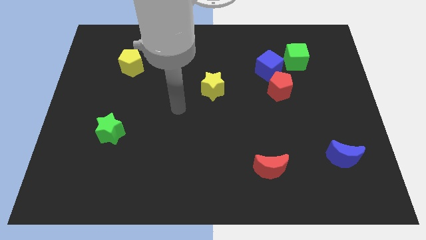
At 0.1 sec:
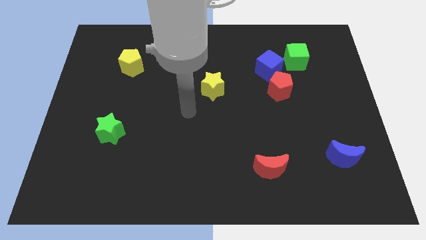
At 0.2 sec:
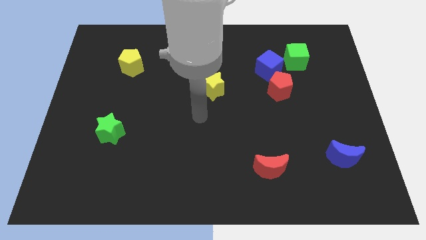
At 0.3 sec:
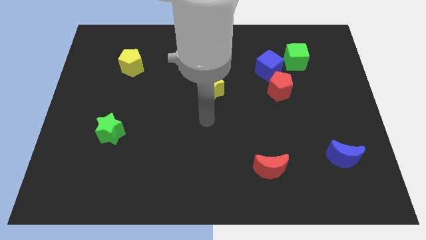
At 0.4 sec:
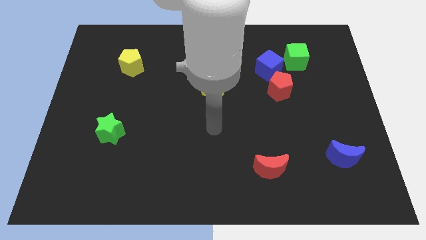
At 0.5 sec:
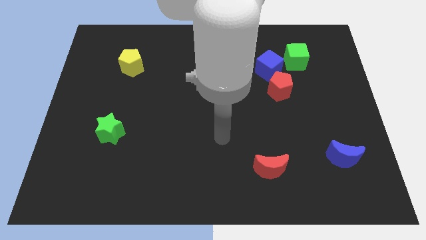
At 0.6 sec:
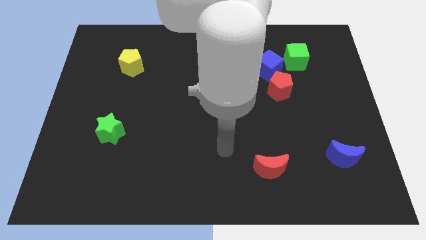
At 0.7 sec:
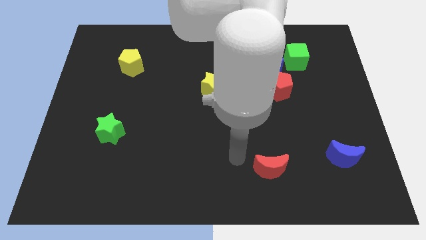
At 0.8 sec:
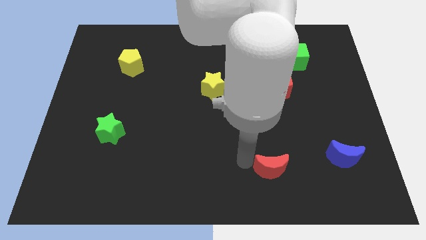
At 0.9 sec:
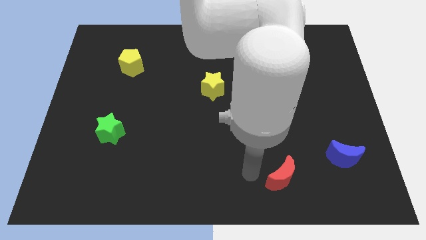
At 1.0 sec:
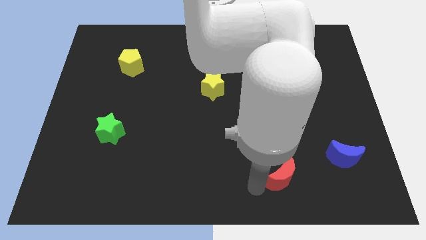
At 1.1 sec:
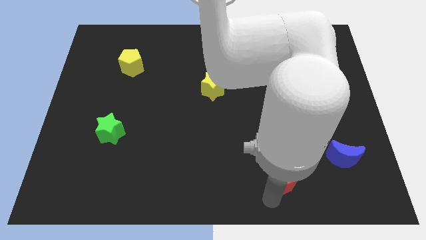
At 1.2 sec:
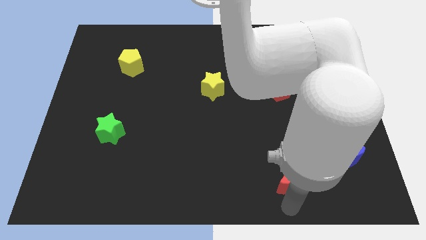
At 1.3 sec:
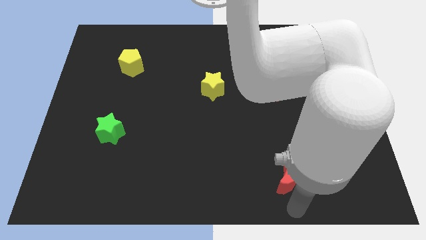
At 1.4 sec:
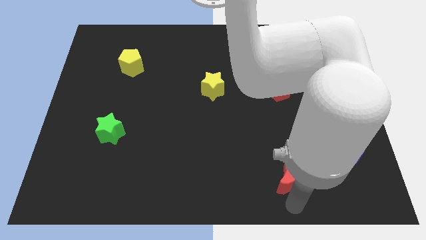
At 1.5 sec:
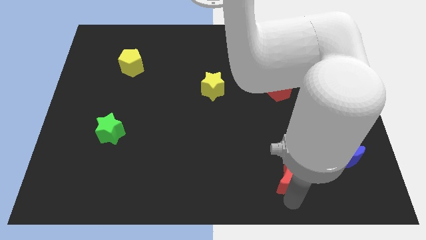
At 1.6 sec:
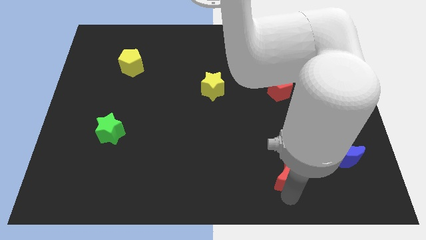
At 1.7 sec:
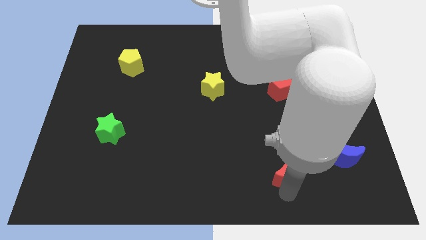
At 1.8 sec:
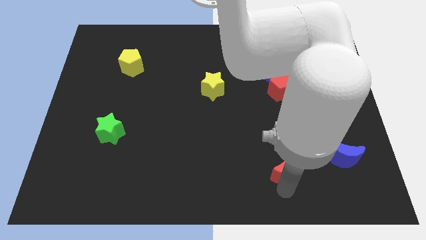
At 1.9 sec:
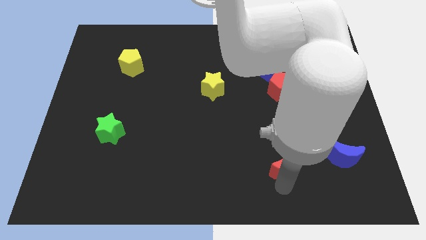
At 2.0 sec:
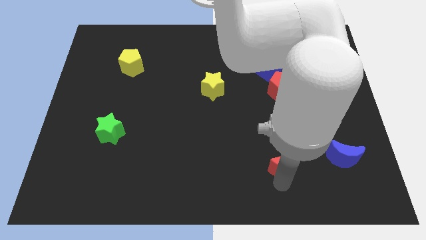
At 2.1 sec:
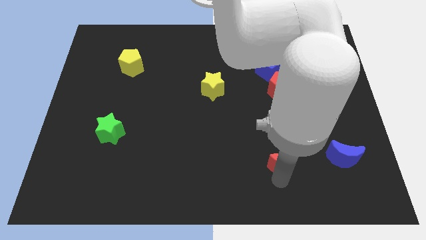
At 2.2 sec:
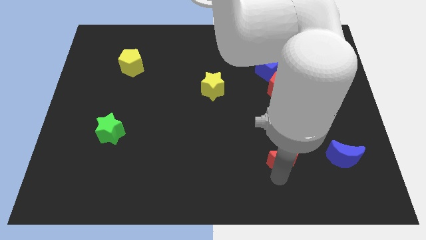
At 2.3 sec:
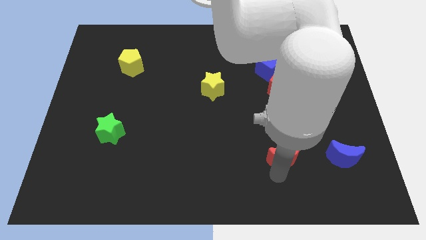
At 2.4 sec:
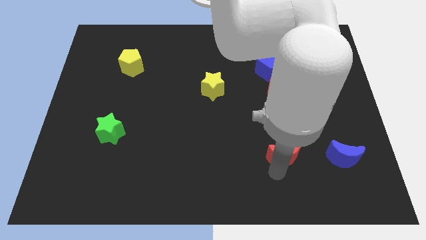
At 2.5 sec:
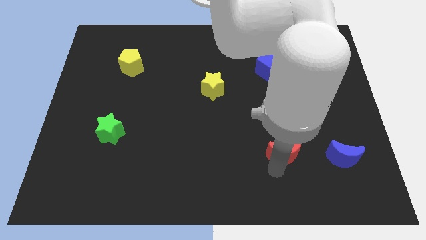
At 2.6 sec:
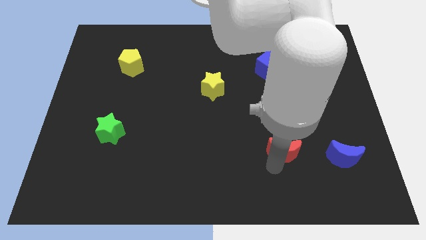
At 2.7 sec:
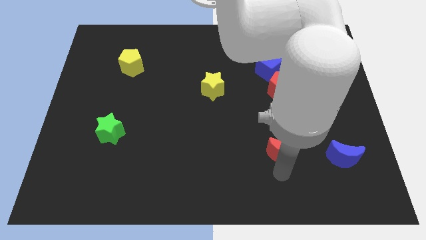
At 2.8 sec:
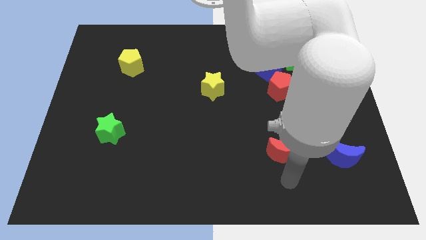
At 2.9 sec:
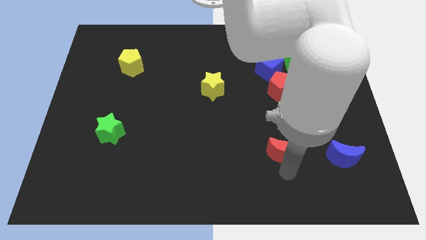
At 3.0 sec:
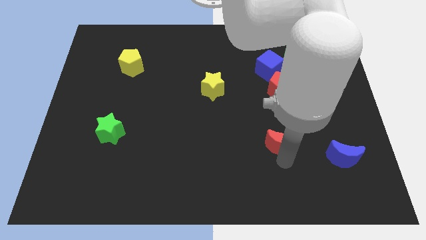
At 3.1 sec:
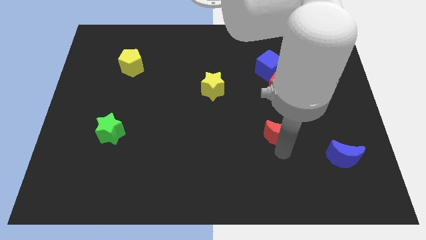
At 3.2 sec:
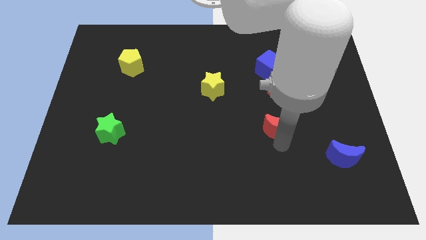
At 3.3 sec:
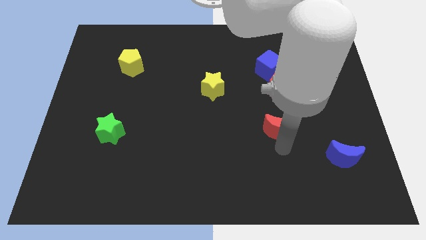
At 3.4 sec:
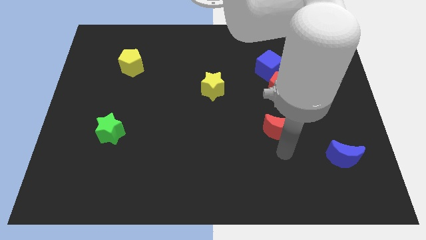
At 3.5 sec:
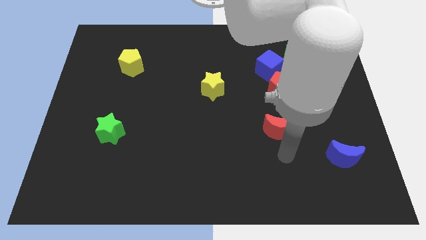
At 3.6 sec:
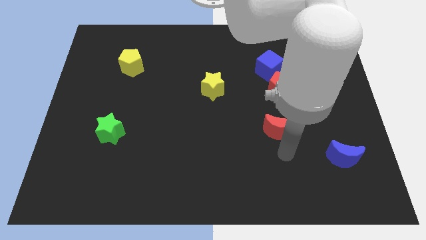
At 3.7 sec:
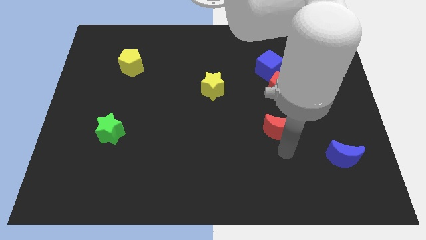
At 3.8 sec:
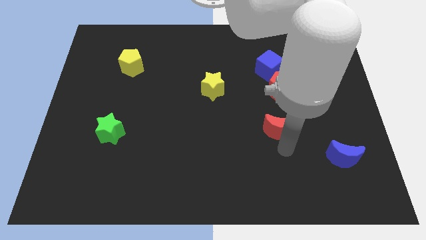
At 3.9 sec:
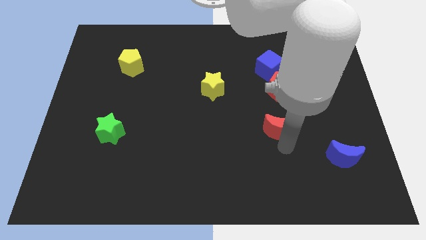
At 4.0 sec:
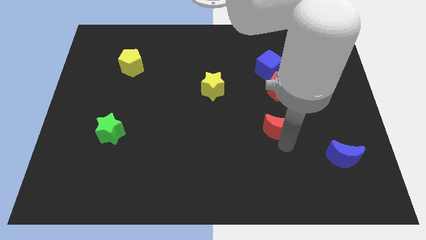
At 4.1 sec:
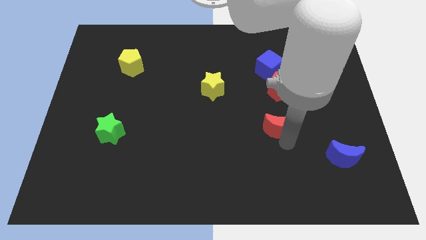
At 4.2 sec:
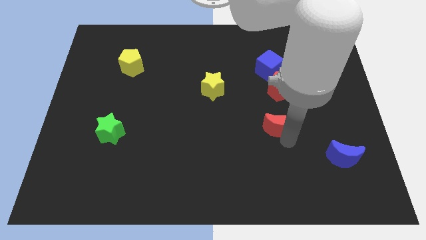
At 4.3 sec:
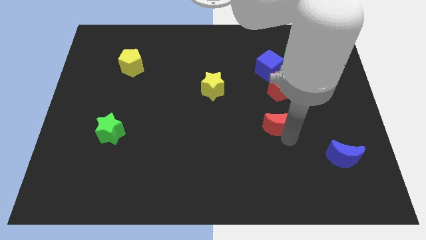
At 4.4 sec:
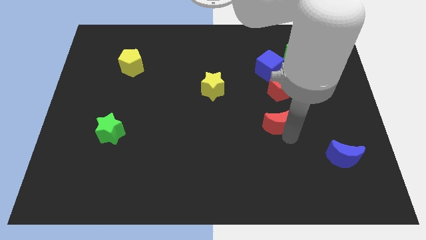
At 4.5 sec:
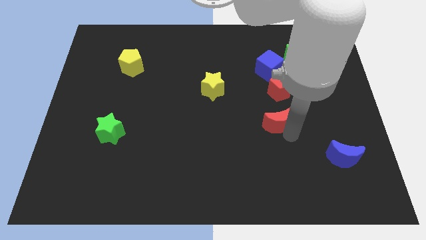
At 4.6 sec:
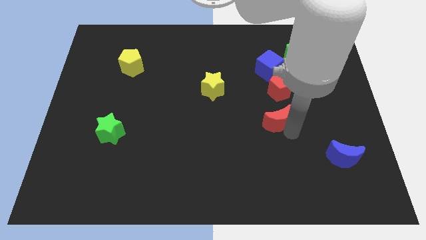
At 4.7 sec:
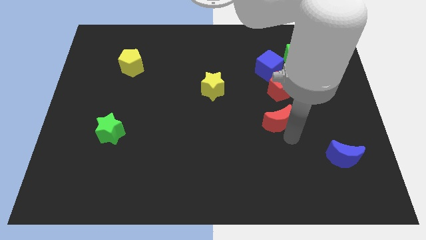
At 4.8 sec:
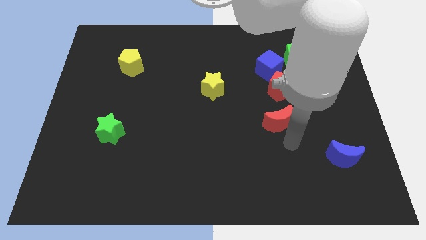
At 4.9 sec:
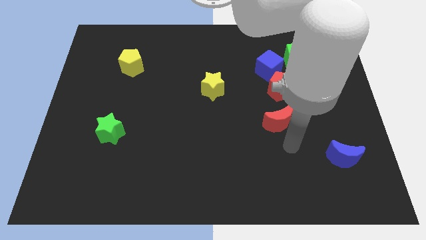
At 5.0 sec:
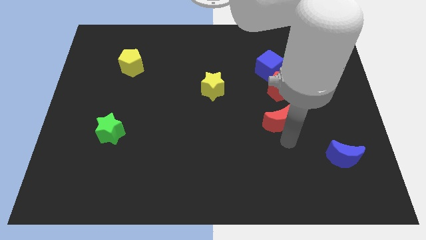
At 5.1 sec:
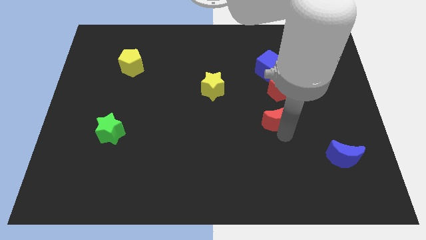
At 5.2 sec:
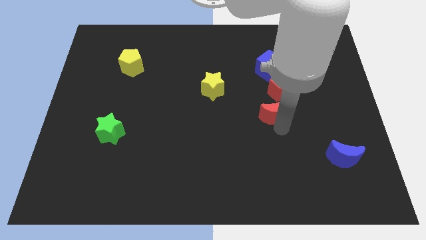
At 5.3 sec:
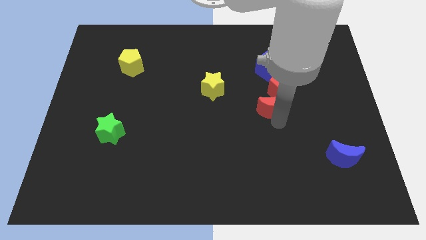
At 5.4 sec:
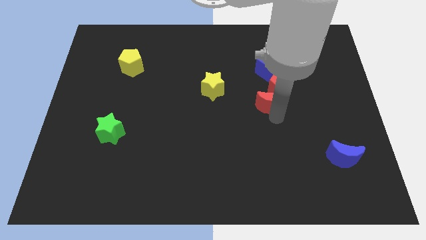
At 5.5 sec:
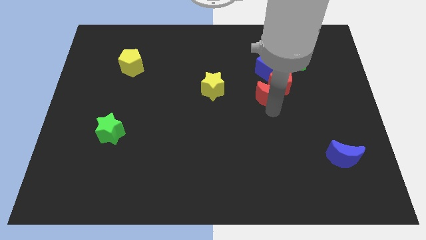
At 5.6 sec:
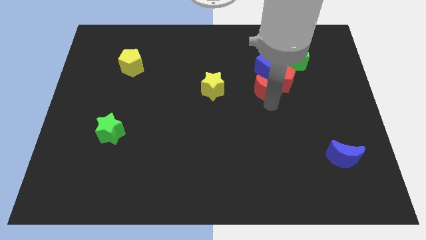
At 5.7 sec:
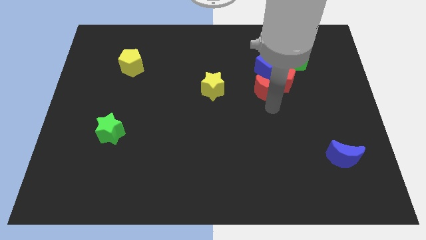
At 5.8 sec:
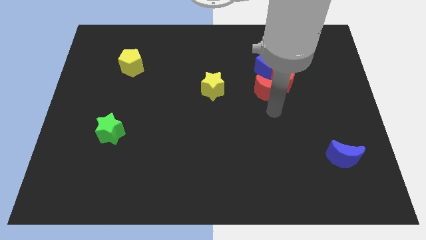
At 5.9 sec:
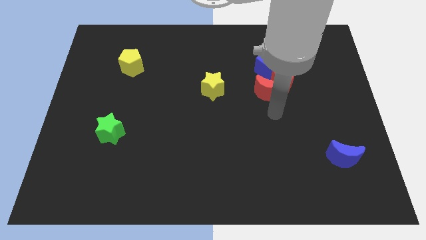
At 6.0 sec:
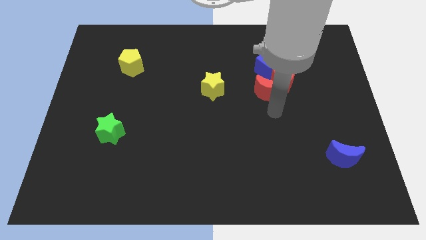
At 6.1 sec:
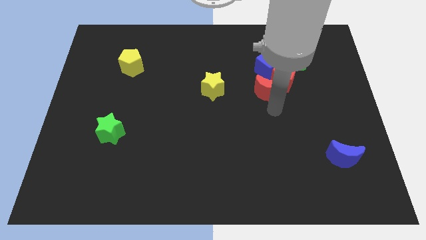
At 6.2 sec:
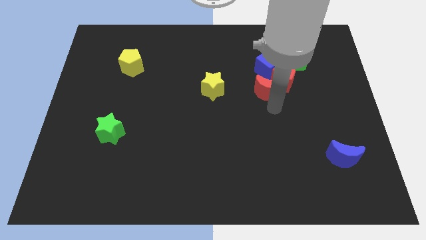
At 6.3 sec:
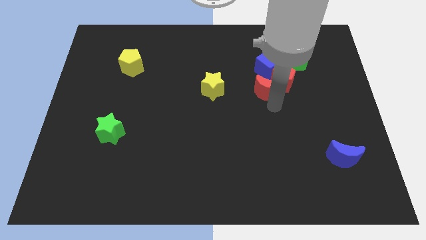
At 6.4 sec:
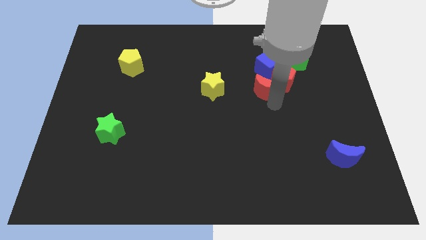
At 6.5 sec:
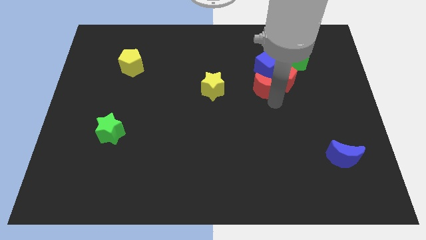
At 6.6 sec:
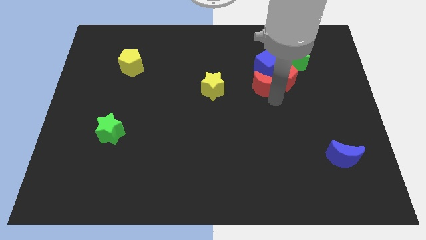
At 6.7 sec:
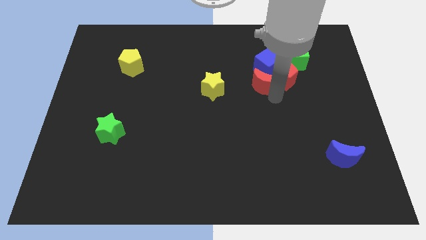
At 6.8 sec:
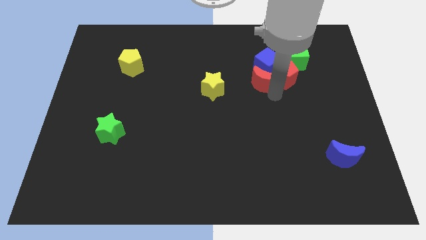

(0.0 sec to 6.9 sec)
move the red moon next to the blue cube

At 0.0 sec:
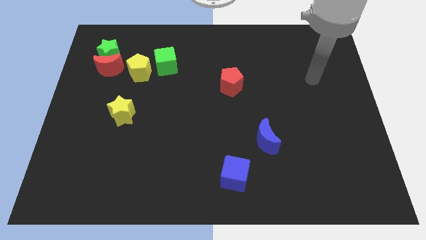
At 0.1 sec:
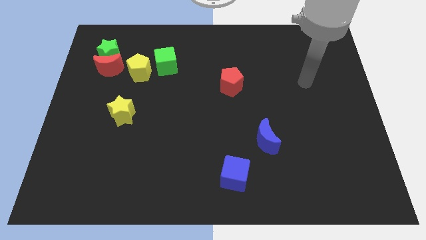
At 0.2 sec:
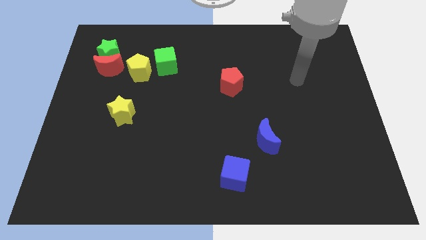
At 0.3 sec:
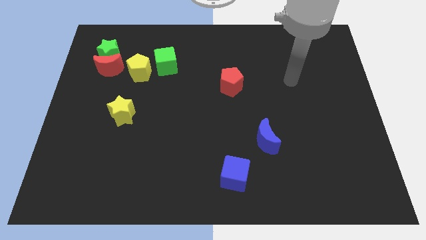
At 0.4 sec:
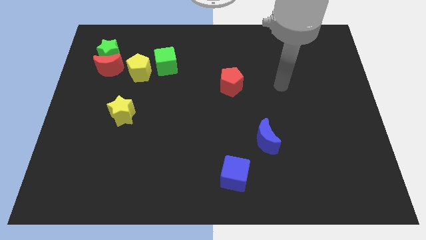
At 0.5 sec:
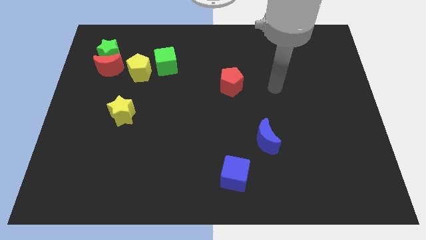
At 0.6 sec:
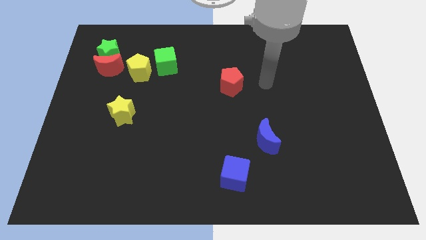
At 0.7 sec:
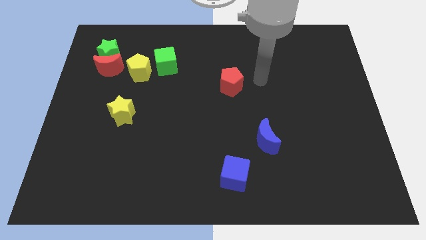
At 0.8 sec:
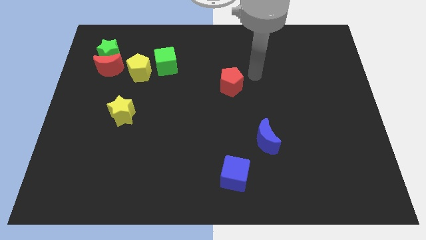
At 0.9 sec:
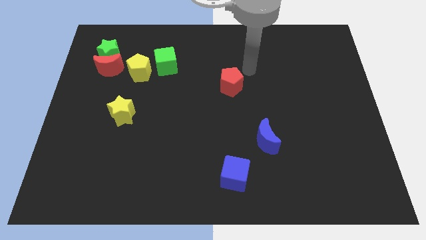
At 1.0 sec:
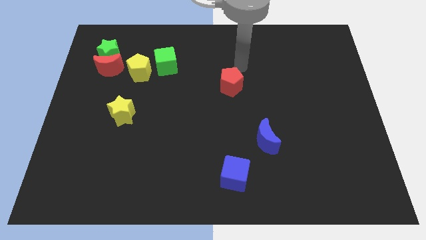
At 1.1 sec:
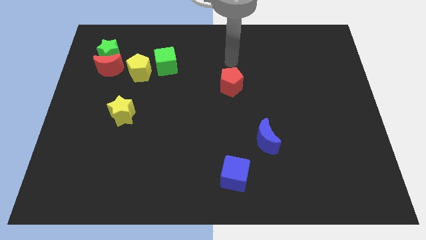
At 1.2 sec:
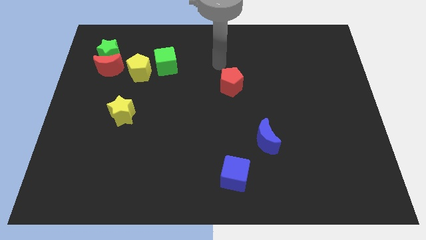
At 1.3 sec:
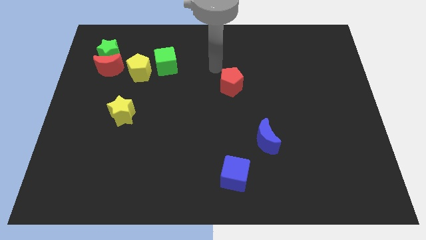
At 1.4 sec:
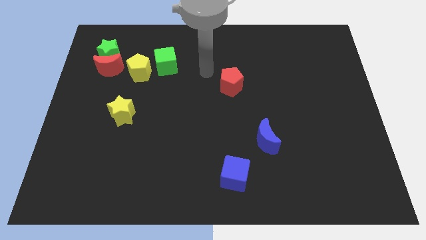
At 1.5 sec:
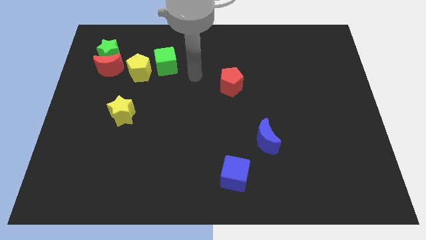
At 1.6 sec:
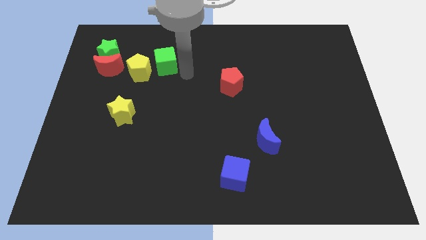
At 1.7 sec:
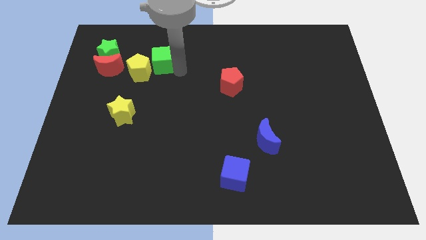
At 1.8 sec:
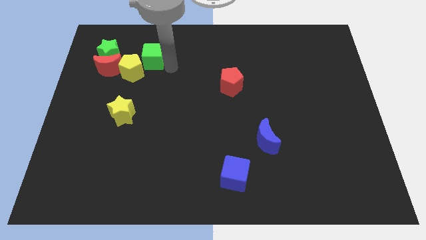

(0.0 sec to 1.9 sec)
put the yellow pentagon close to the red moon
